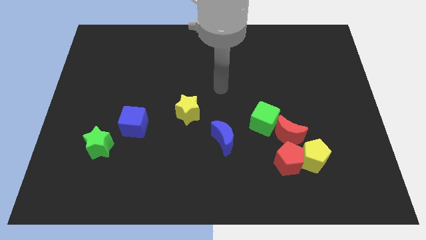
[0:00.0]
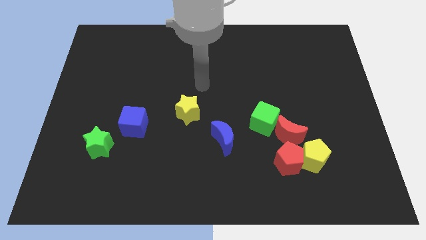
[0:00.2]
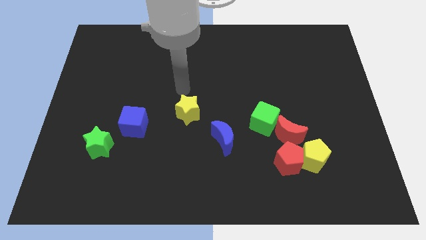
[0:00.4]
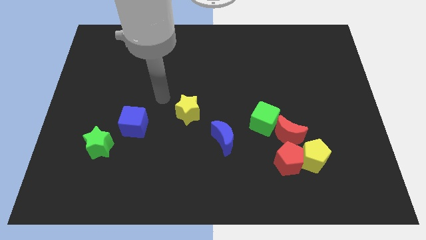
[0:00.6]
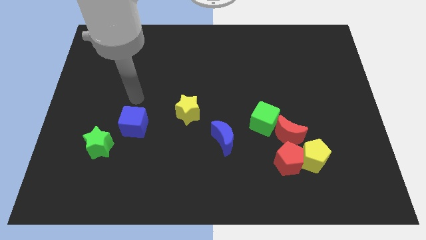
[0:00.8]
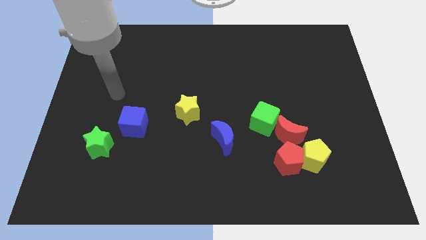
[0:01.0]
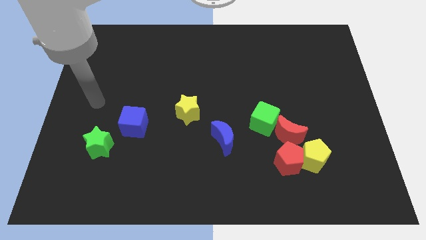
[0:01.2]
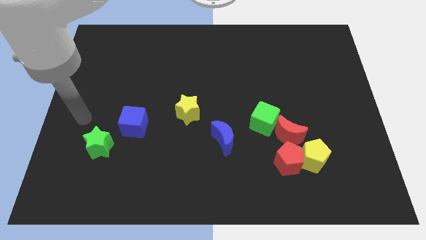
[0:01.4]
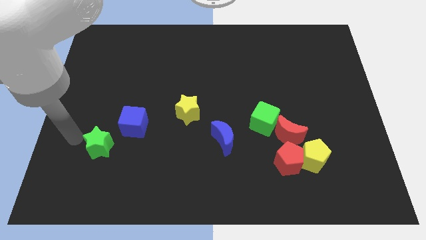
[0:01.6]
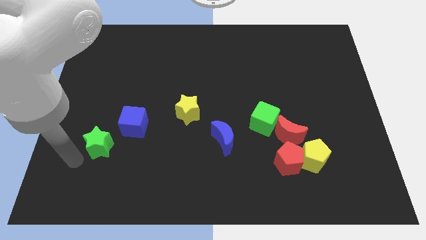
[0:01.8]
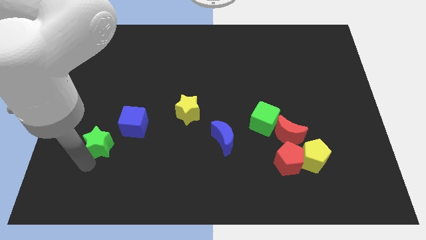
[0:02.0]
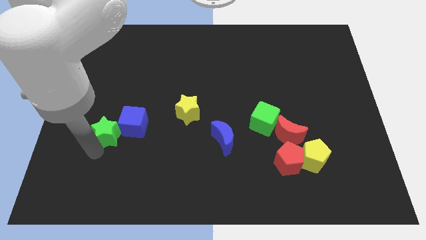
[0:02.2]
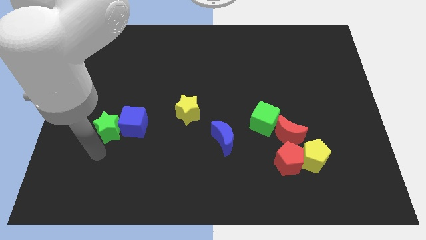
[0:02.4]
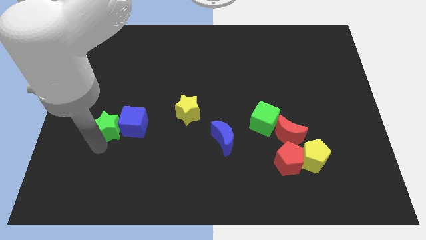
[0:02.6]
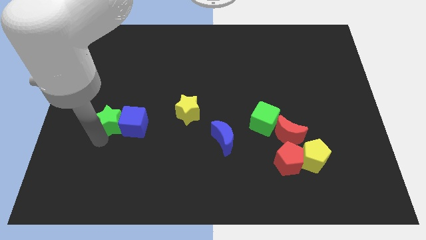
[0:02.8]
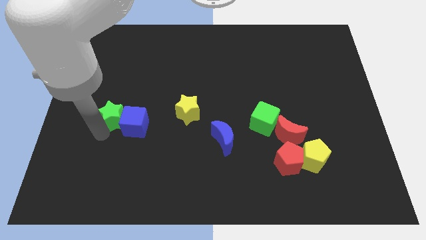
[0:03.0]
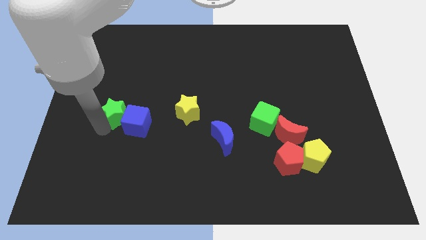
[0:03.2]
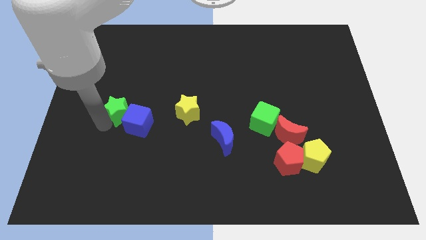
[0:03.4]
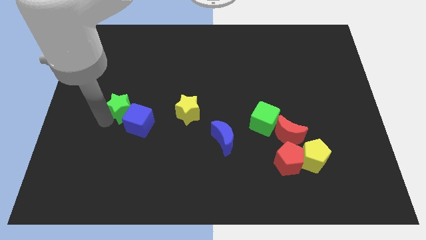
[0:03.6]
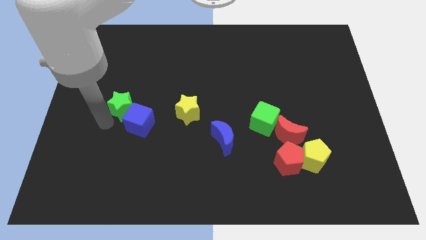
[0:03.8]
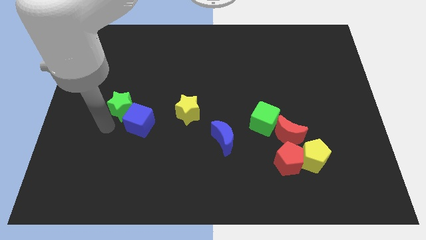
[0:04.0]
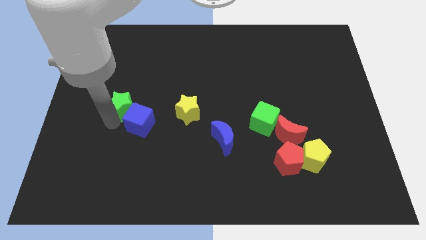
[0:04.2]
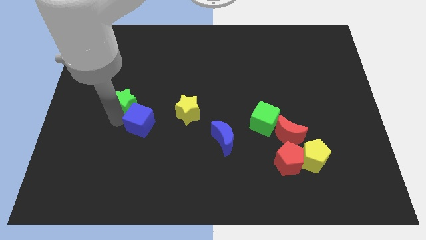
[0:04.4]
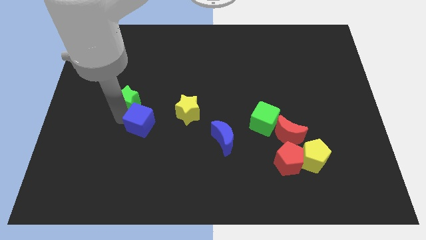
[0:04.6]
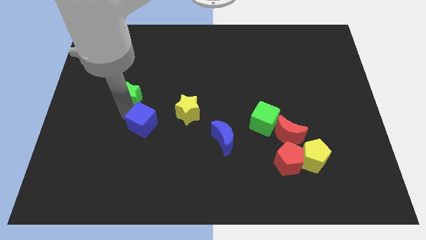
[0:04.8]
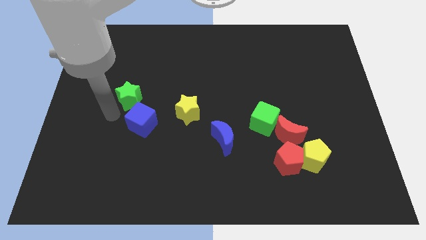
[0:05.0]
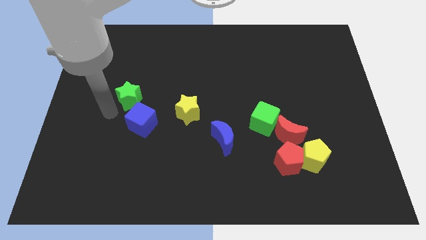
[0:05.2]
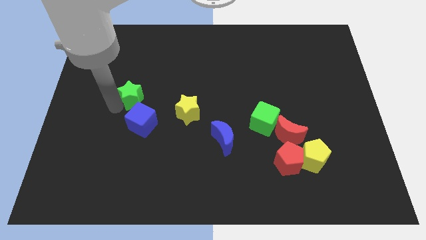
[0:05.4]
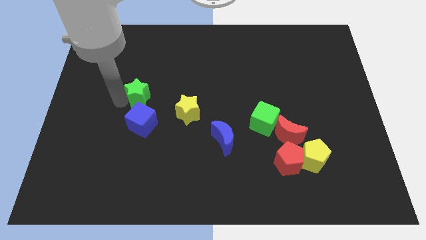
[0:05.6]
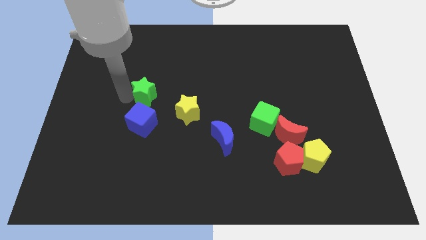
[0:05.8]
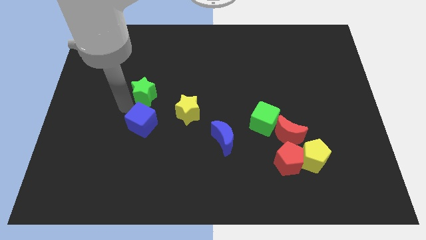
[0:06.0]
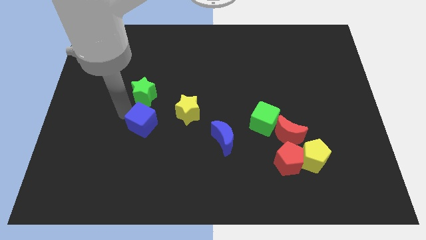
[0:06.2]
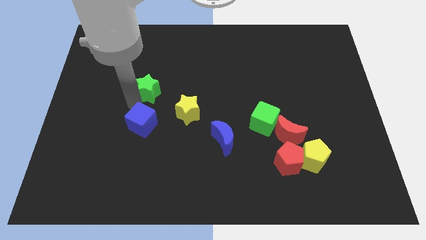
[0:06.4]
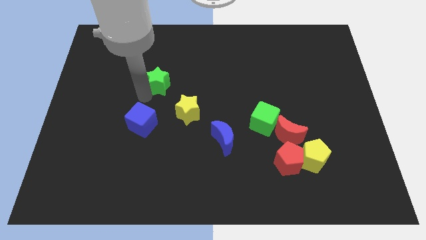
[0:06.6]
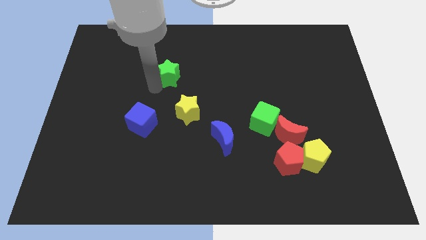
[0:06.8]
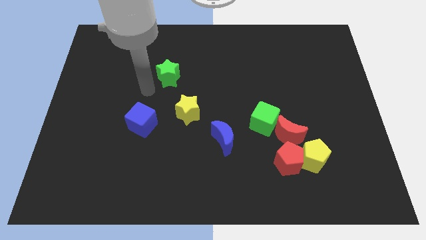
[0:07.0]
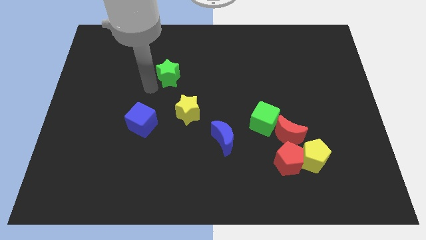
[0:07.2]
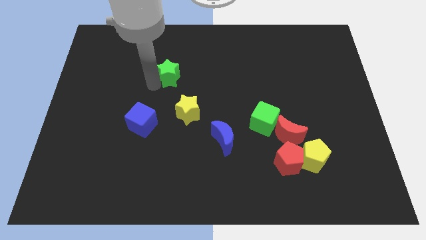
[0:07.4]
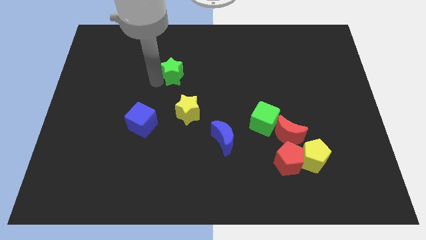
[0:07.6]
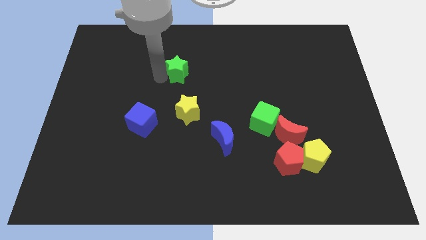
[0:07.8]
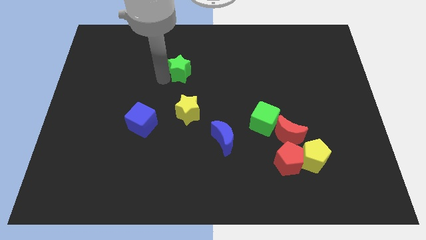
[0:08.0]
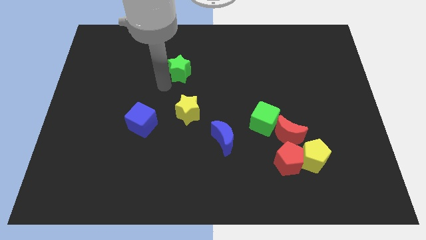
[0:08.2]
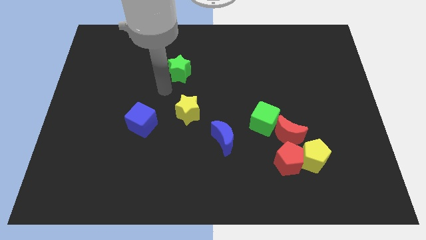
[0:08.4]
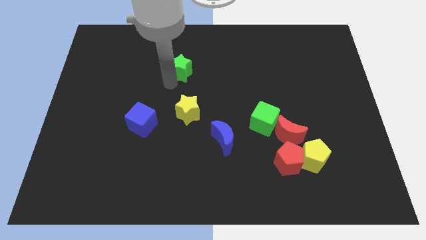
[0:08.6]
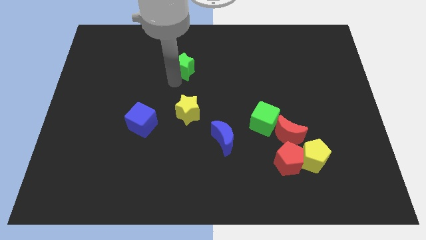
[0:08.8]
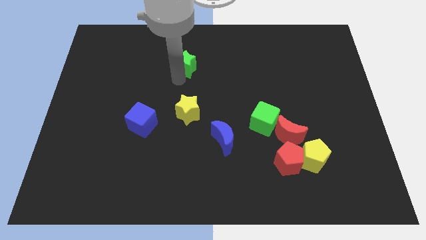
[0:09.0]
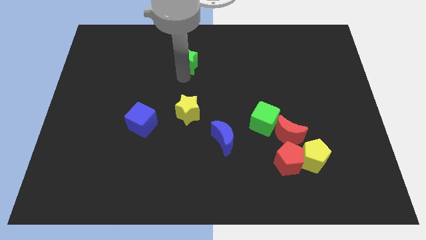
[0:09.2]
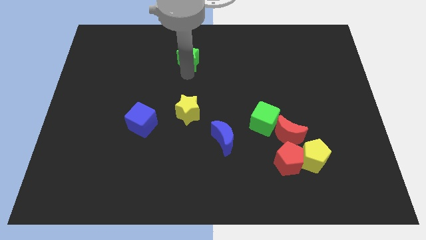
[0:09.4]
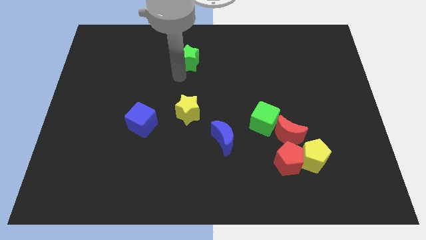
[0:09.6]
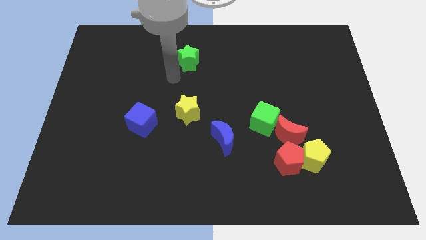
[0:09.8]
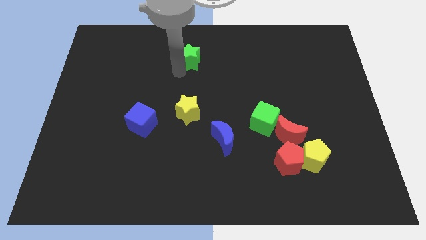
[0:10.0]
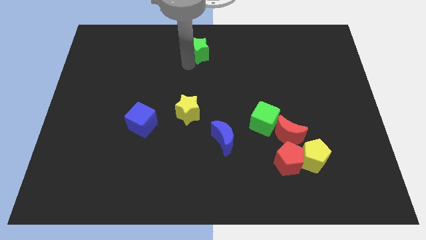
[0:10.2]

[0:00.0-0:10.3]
slide the green star to the top

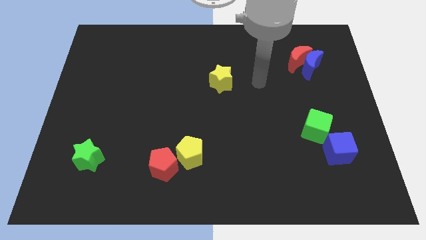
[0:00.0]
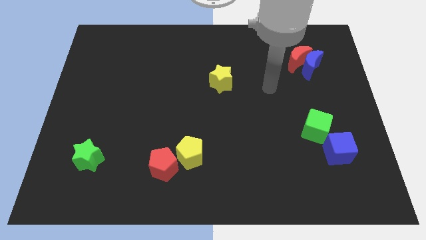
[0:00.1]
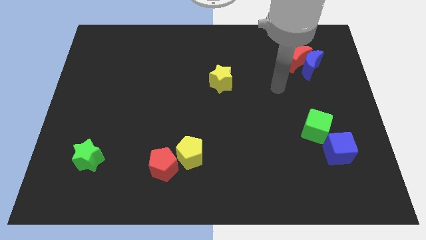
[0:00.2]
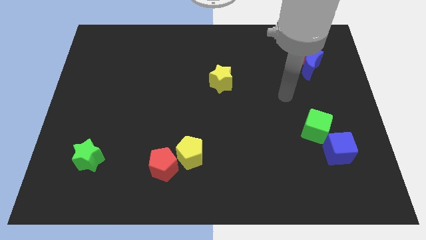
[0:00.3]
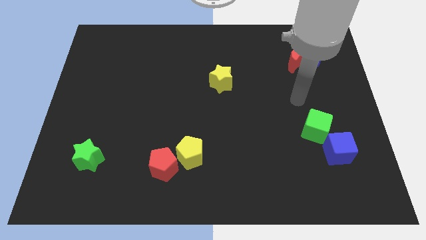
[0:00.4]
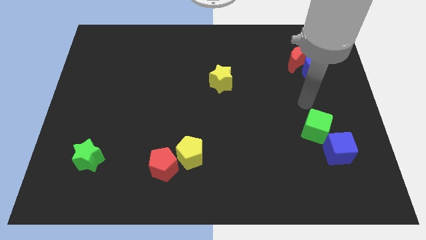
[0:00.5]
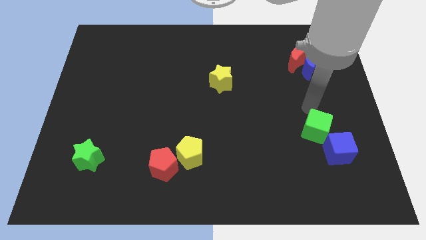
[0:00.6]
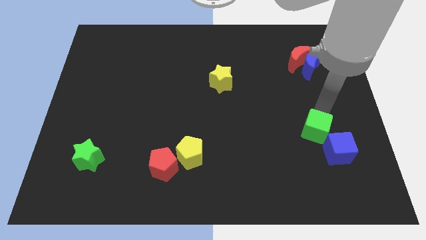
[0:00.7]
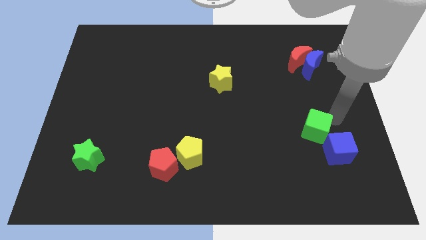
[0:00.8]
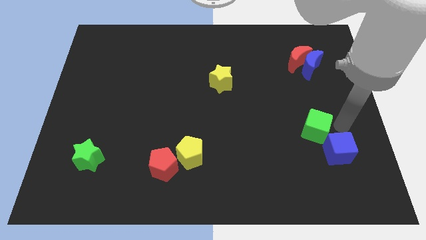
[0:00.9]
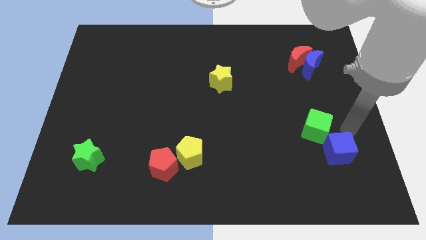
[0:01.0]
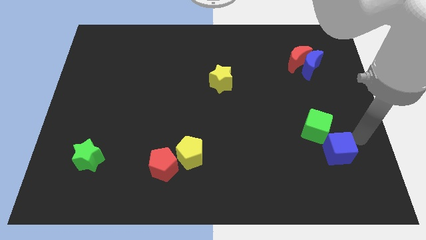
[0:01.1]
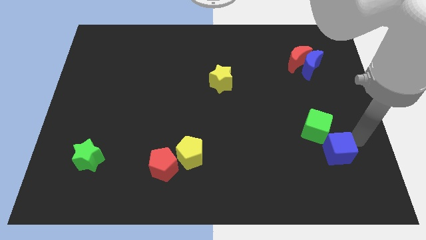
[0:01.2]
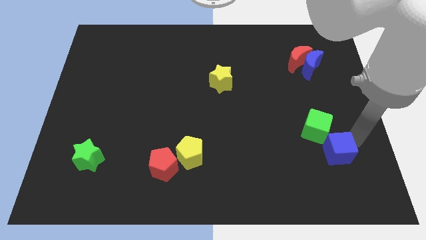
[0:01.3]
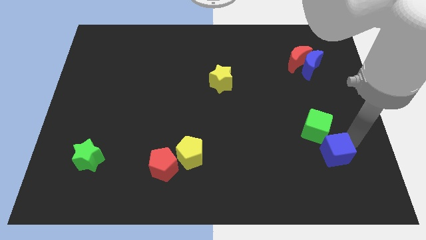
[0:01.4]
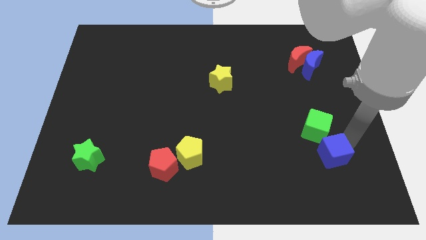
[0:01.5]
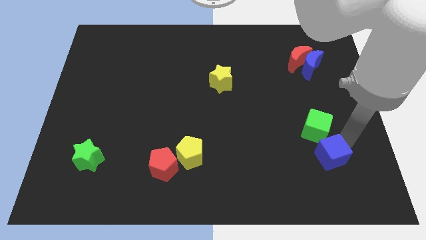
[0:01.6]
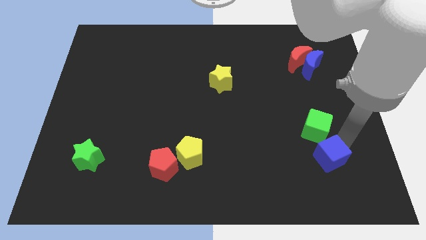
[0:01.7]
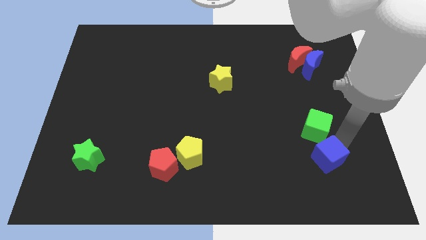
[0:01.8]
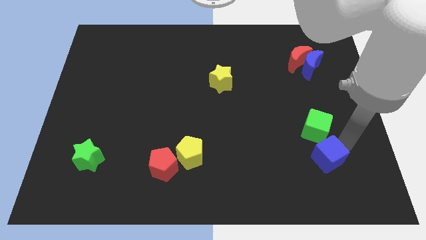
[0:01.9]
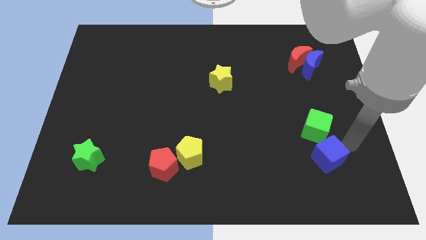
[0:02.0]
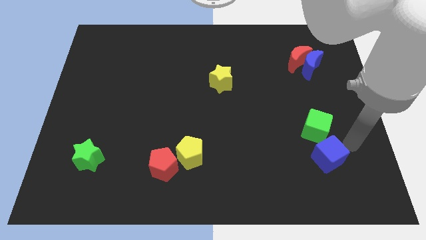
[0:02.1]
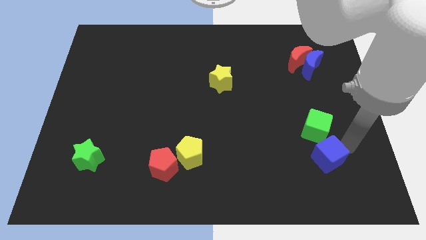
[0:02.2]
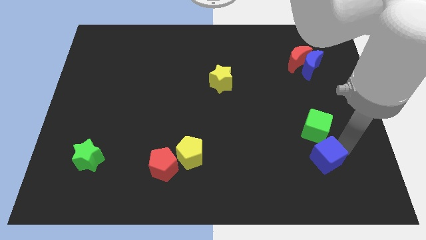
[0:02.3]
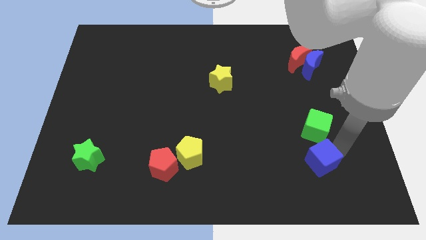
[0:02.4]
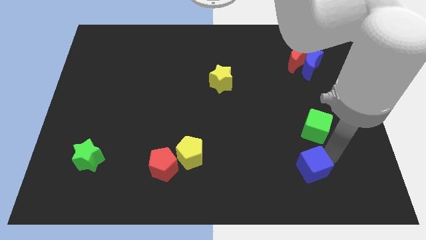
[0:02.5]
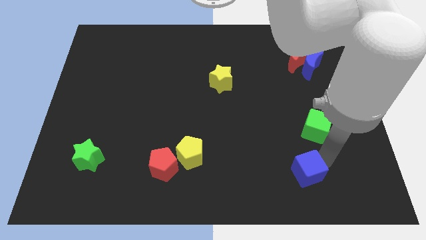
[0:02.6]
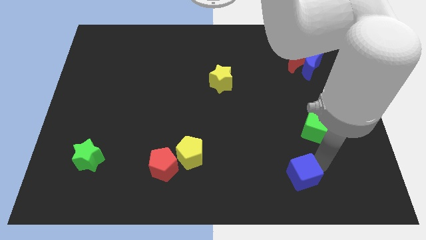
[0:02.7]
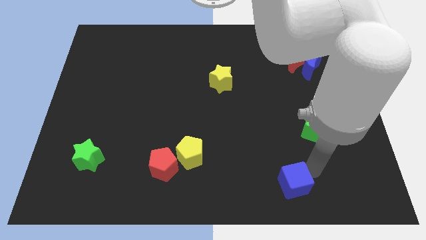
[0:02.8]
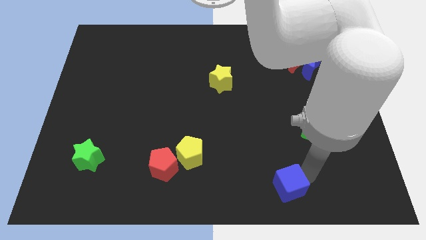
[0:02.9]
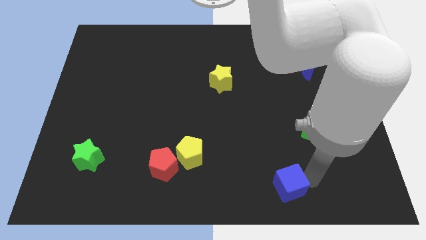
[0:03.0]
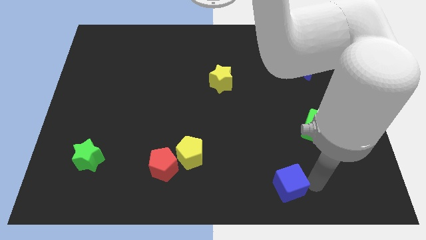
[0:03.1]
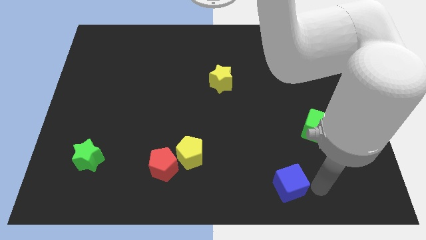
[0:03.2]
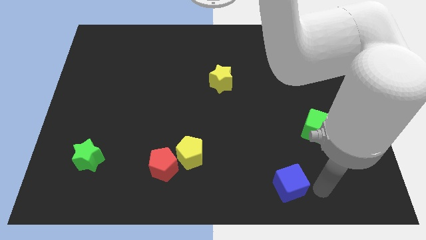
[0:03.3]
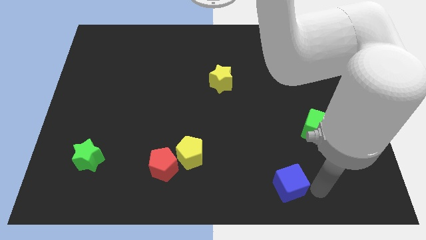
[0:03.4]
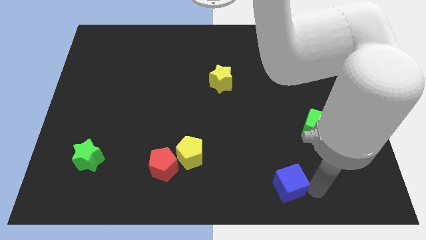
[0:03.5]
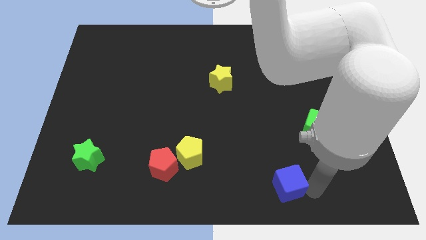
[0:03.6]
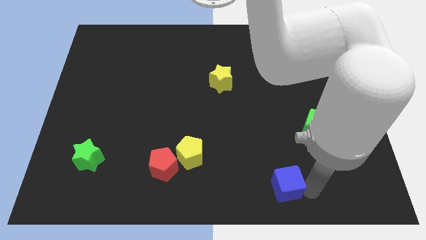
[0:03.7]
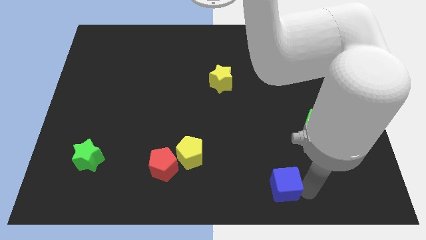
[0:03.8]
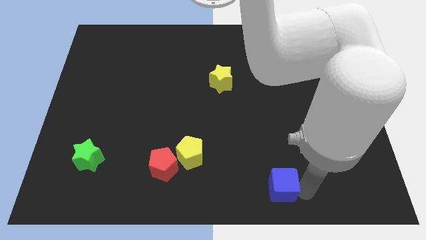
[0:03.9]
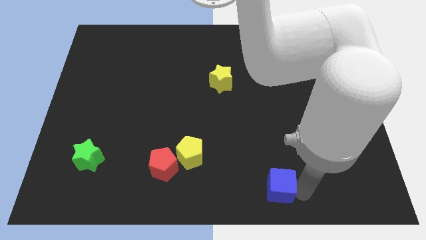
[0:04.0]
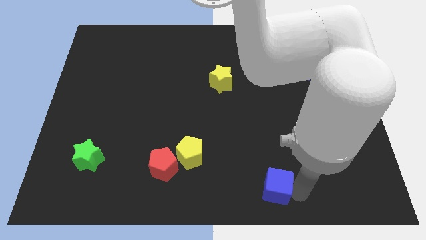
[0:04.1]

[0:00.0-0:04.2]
push the blue cube to the bottom
